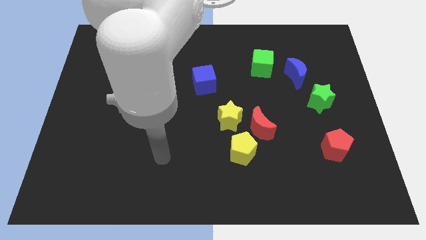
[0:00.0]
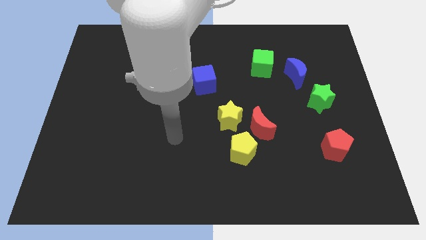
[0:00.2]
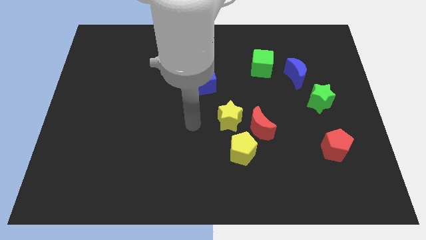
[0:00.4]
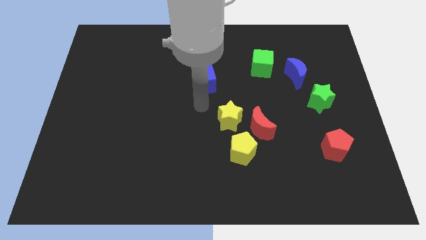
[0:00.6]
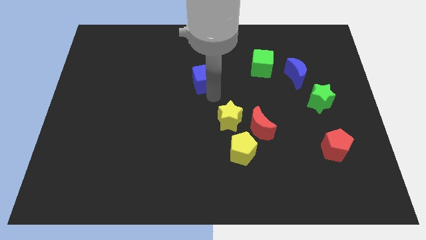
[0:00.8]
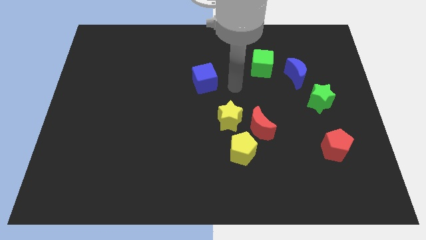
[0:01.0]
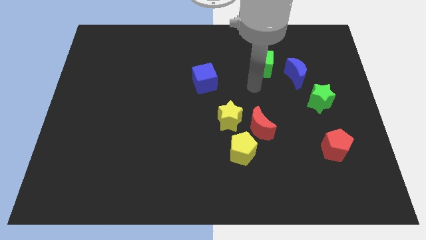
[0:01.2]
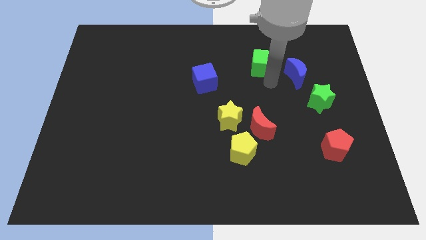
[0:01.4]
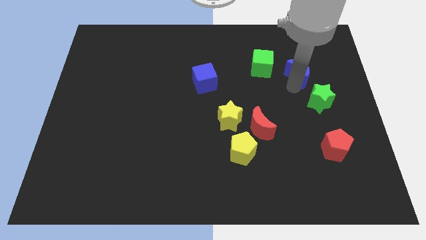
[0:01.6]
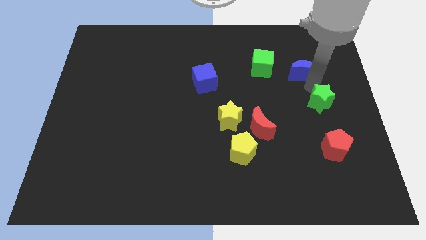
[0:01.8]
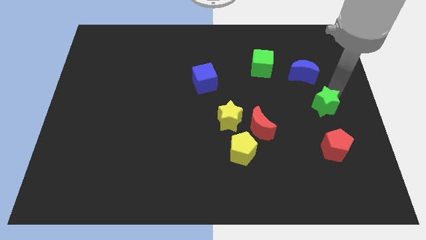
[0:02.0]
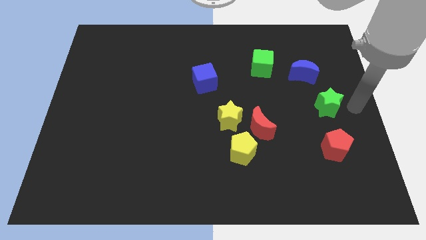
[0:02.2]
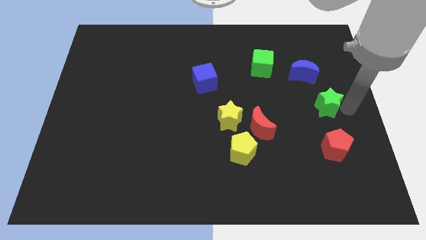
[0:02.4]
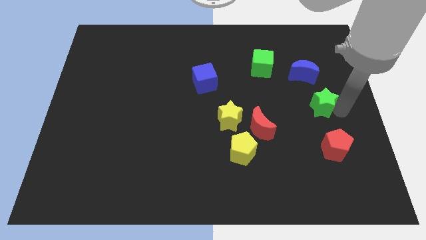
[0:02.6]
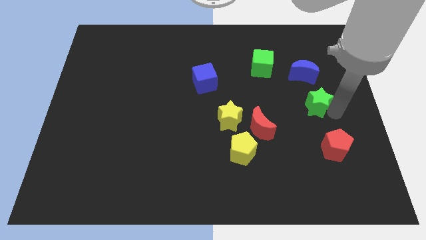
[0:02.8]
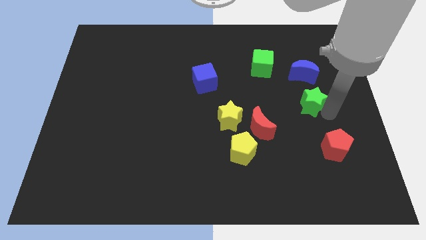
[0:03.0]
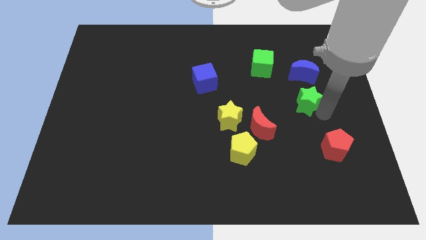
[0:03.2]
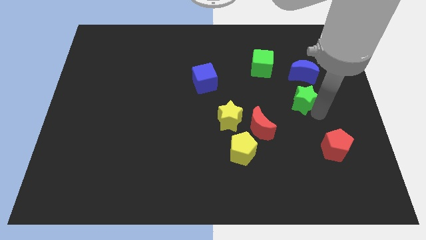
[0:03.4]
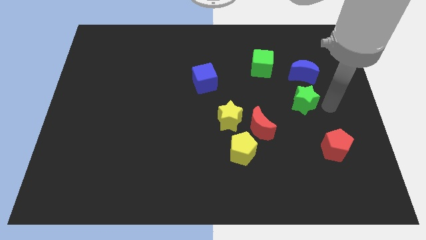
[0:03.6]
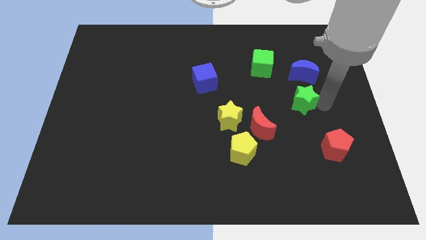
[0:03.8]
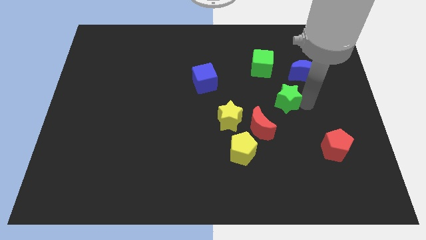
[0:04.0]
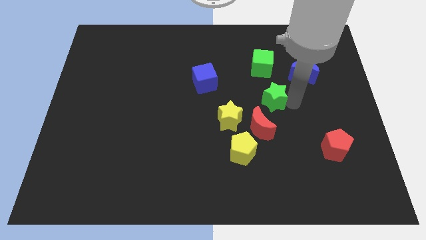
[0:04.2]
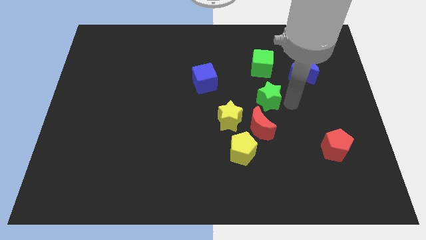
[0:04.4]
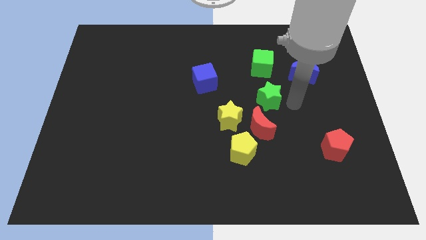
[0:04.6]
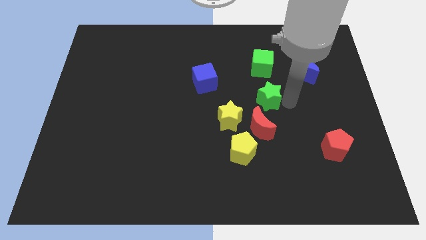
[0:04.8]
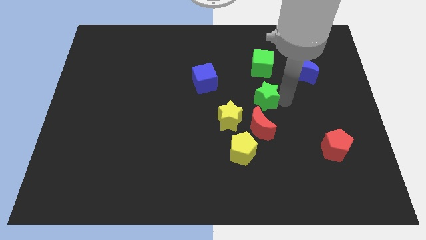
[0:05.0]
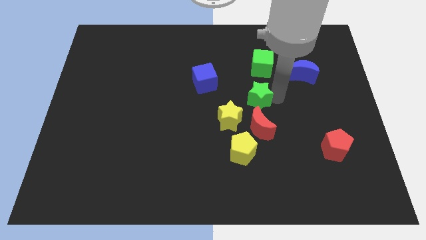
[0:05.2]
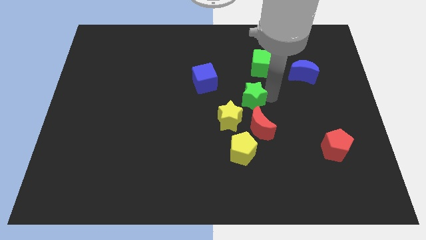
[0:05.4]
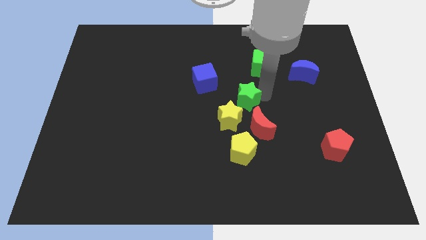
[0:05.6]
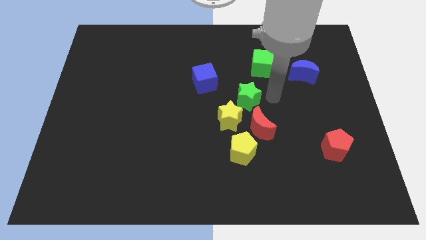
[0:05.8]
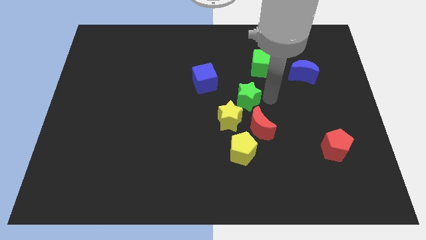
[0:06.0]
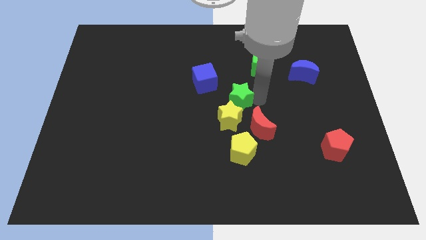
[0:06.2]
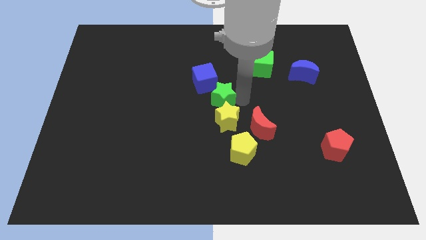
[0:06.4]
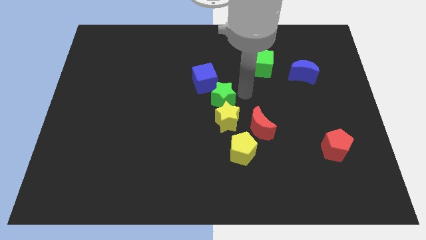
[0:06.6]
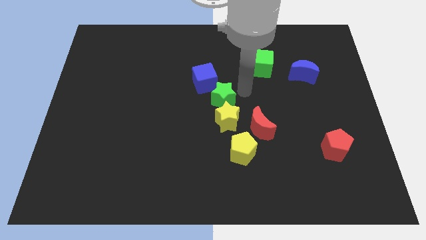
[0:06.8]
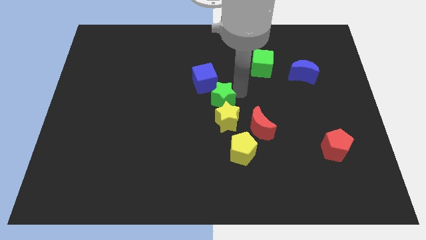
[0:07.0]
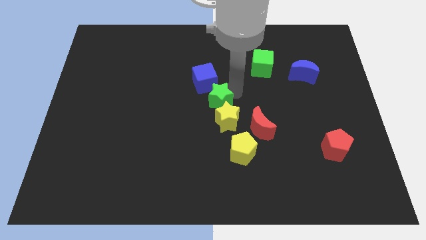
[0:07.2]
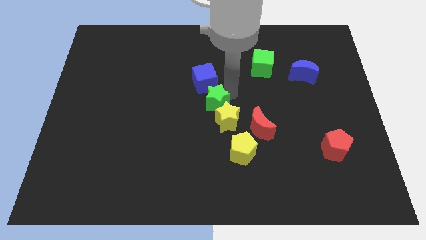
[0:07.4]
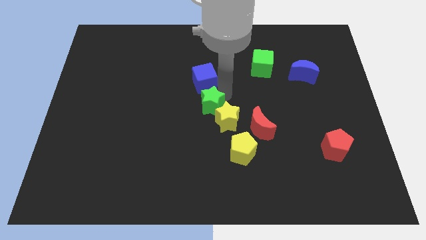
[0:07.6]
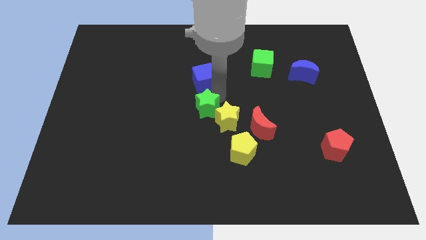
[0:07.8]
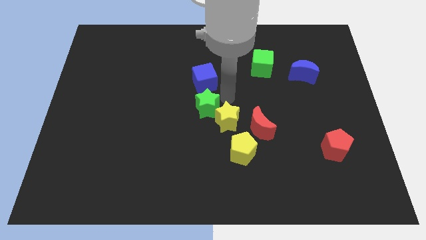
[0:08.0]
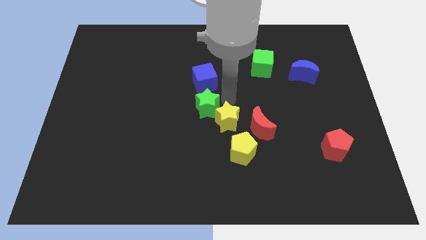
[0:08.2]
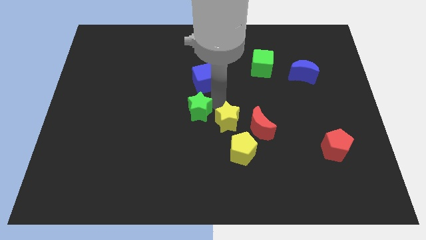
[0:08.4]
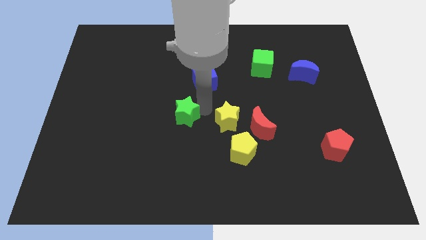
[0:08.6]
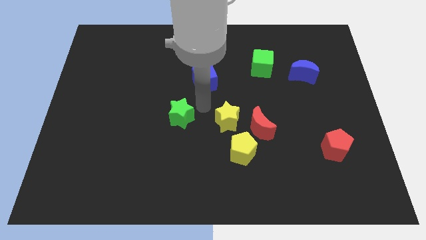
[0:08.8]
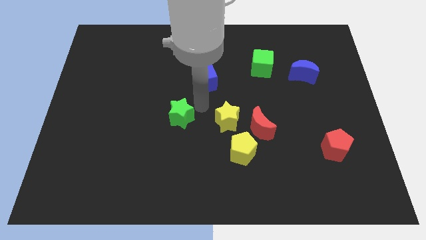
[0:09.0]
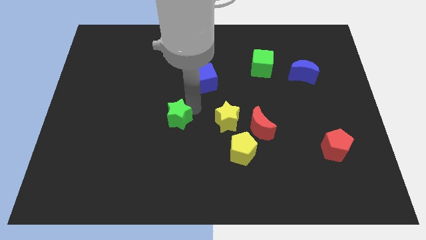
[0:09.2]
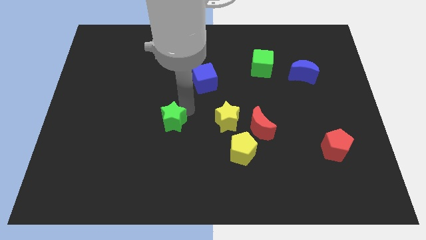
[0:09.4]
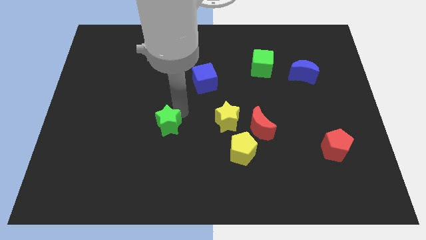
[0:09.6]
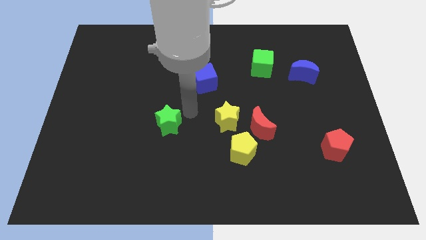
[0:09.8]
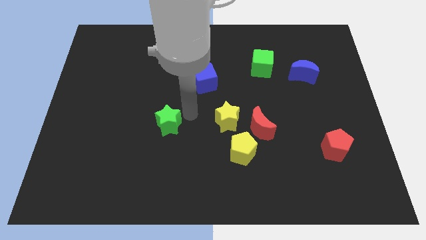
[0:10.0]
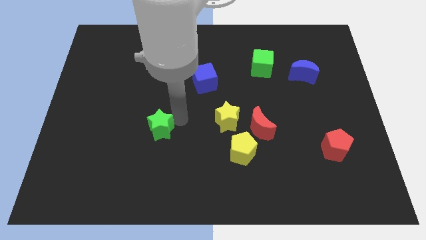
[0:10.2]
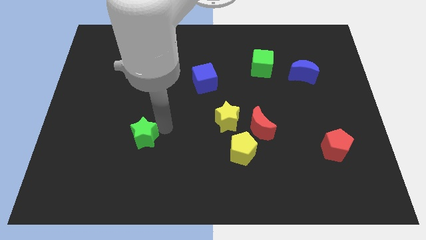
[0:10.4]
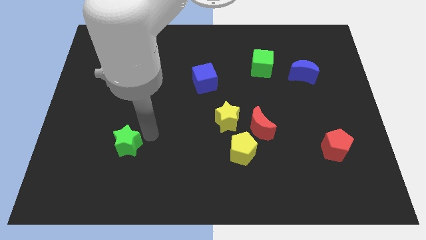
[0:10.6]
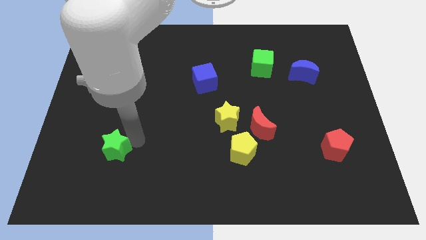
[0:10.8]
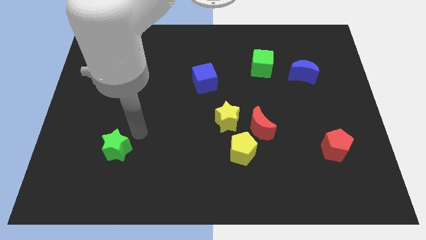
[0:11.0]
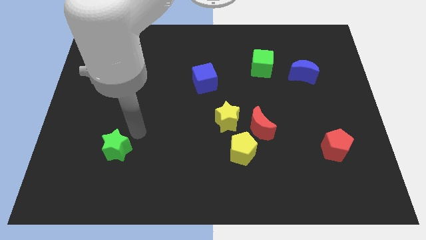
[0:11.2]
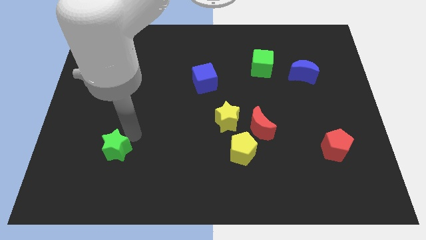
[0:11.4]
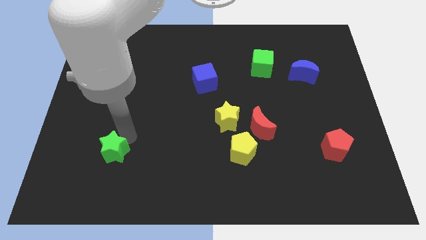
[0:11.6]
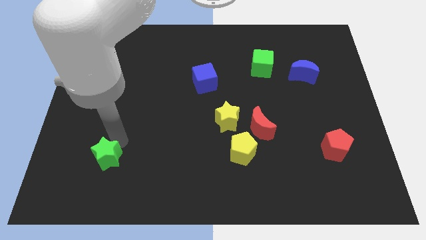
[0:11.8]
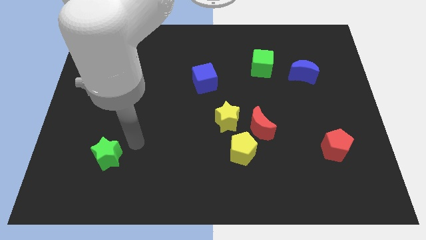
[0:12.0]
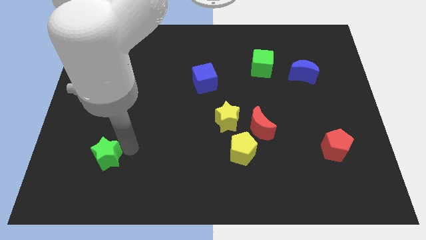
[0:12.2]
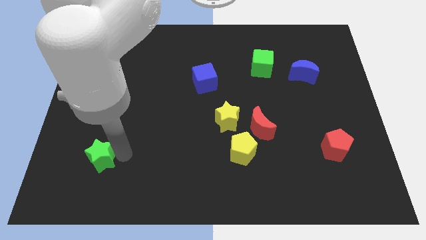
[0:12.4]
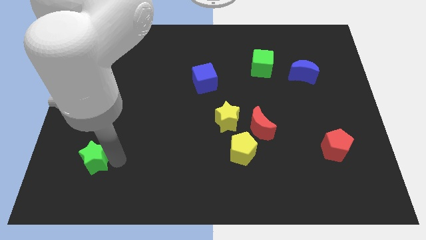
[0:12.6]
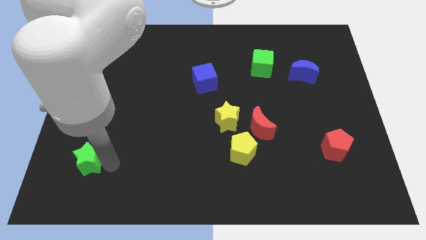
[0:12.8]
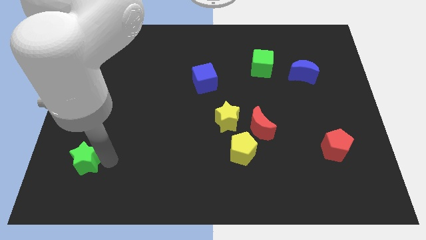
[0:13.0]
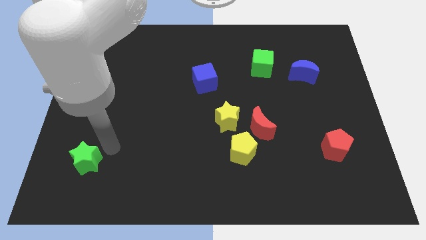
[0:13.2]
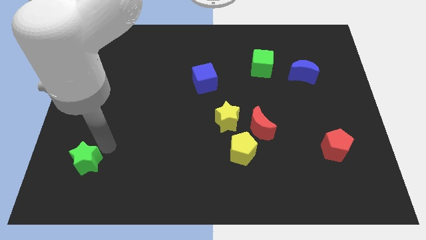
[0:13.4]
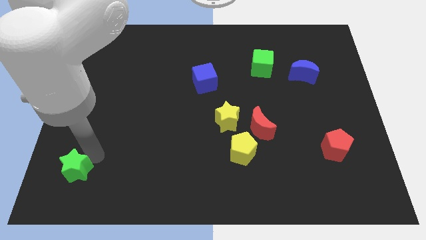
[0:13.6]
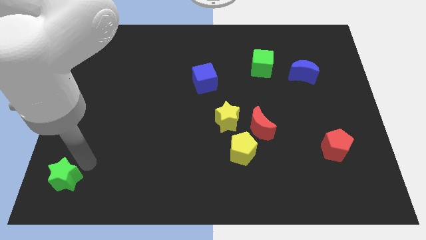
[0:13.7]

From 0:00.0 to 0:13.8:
put the green star to the bottom left corner
